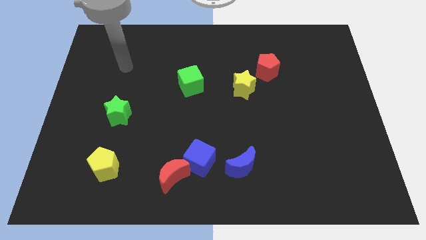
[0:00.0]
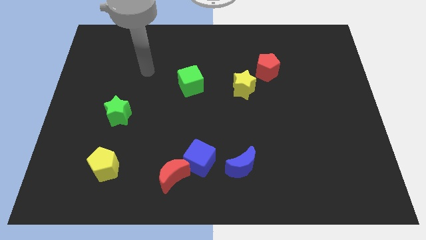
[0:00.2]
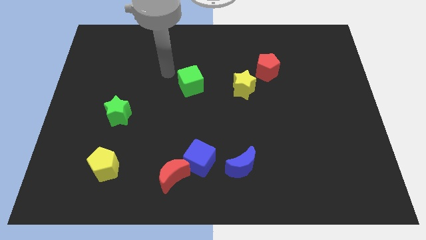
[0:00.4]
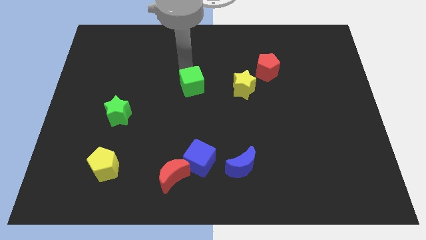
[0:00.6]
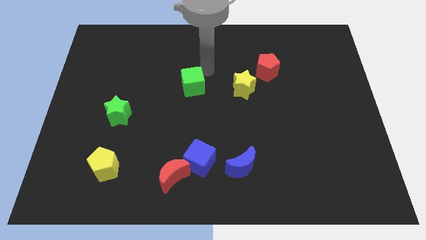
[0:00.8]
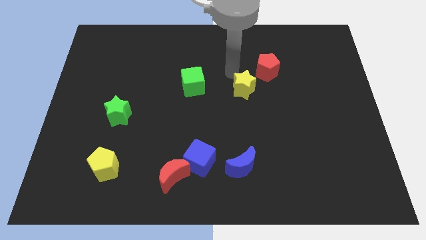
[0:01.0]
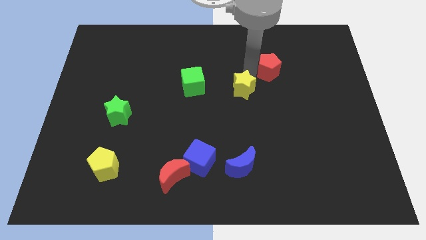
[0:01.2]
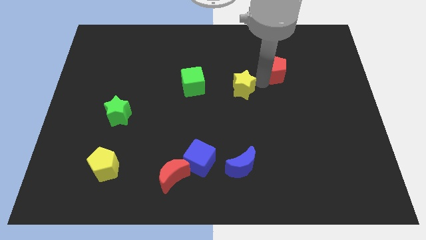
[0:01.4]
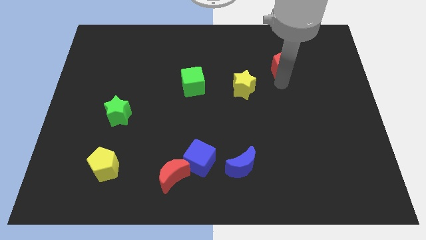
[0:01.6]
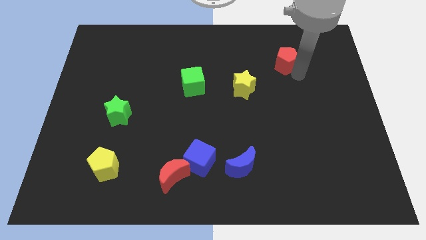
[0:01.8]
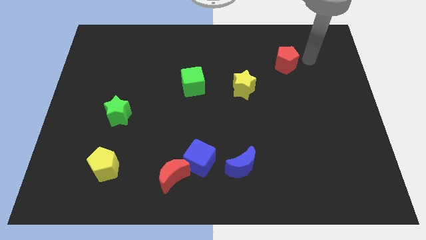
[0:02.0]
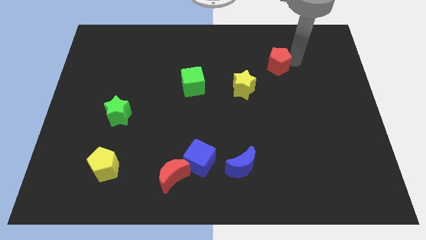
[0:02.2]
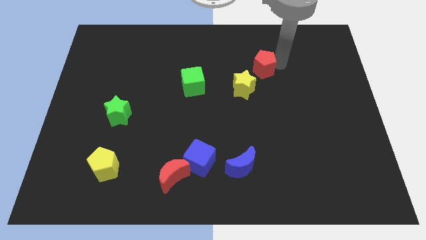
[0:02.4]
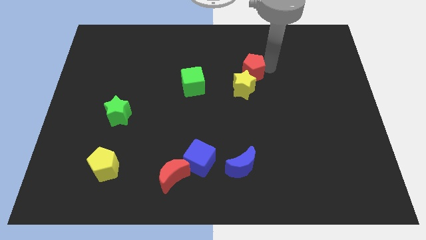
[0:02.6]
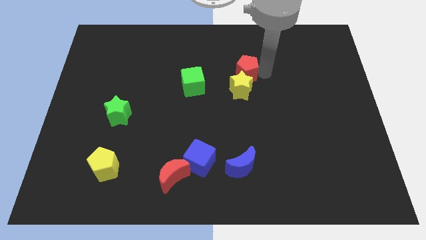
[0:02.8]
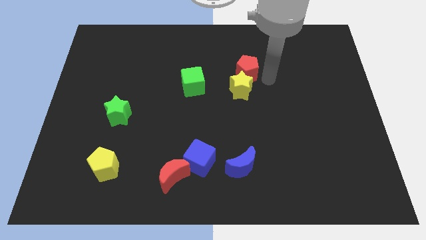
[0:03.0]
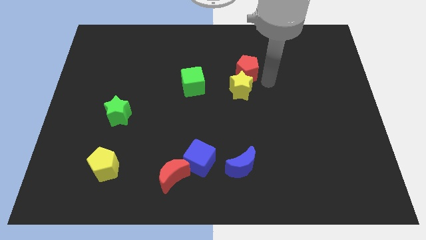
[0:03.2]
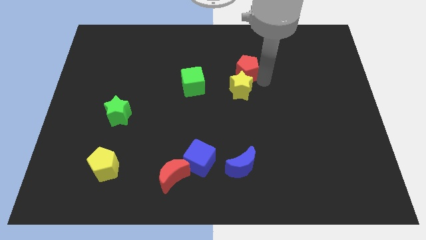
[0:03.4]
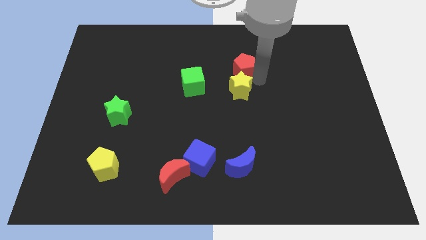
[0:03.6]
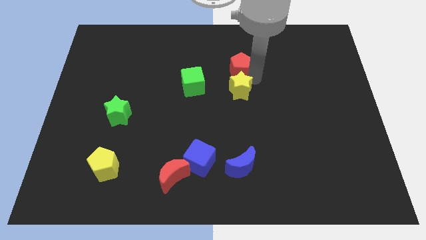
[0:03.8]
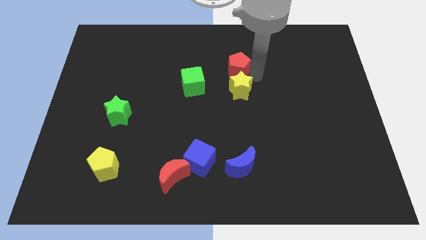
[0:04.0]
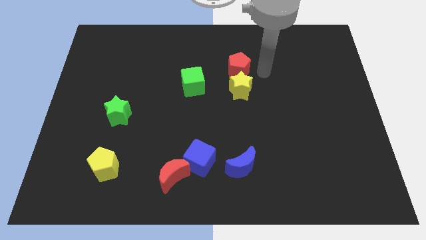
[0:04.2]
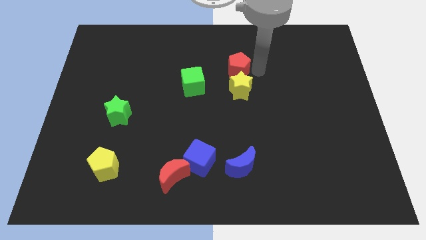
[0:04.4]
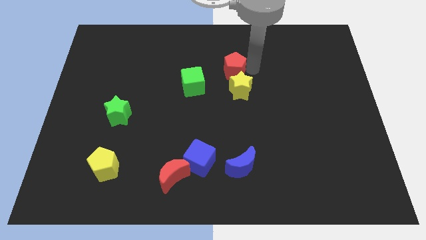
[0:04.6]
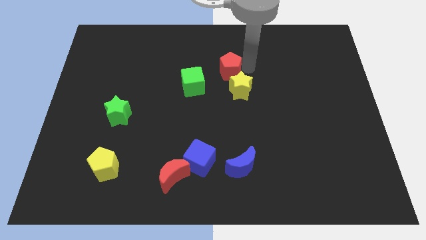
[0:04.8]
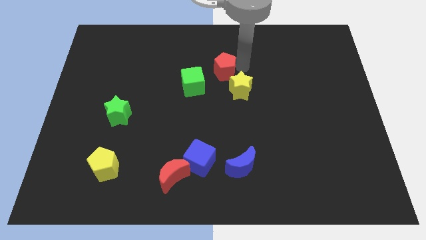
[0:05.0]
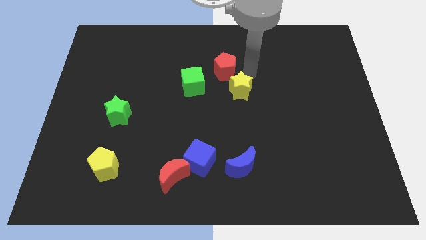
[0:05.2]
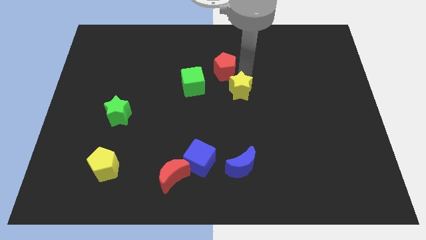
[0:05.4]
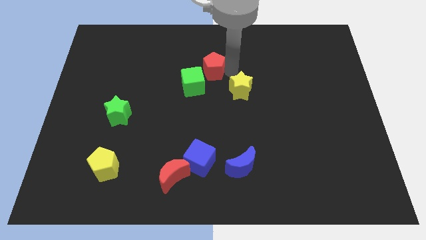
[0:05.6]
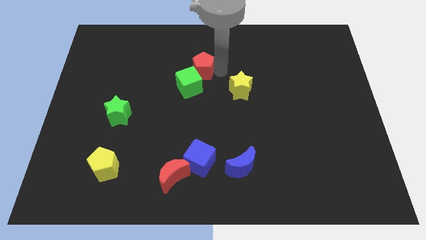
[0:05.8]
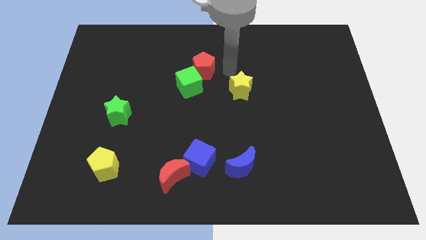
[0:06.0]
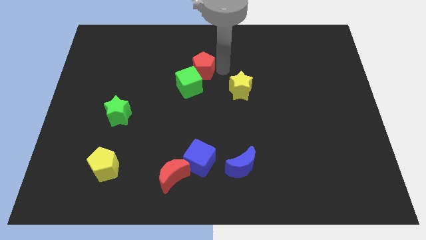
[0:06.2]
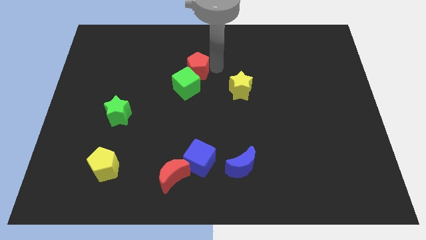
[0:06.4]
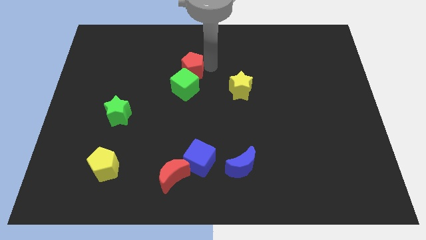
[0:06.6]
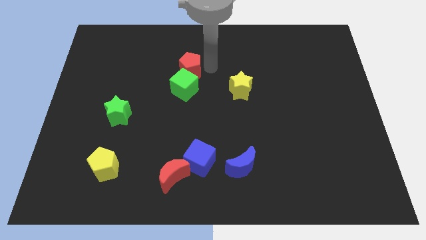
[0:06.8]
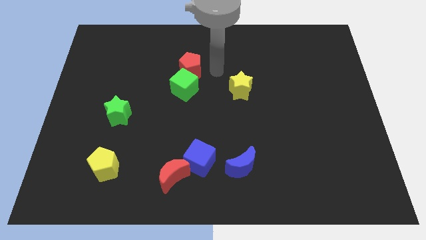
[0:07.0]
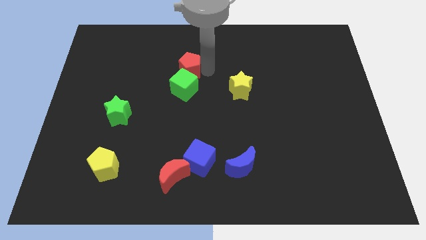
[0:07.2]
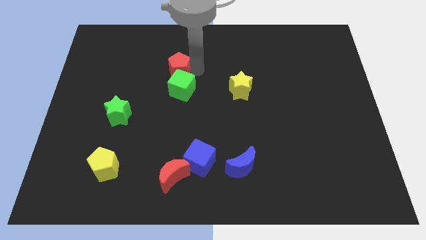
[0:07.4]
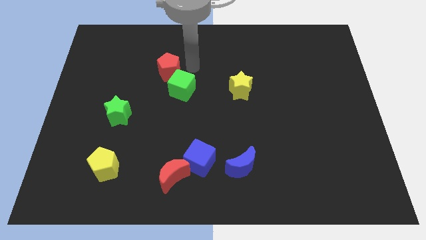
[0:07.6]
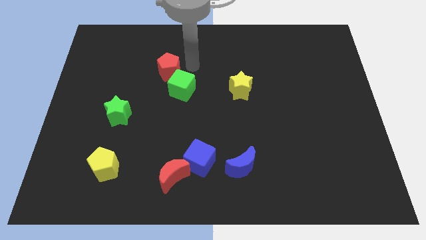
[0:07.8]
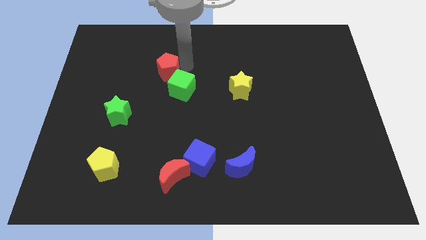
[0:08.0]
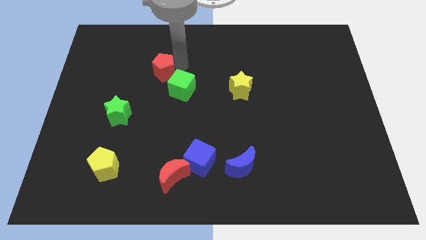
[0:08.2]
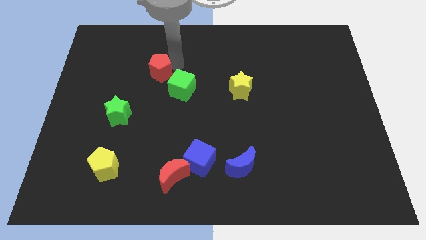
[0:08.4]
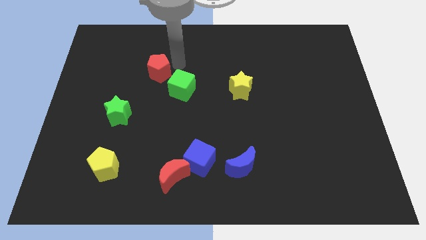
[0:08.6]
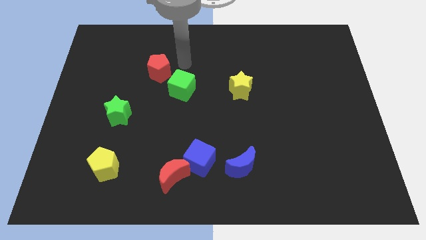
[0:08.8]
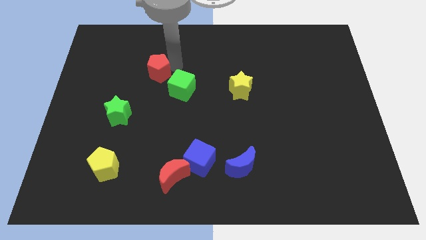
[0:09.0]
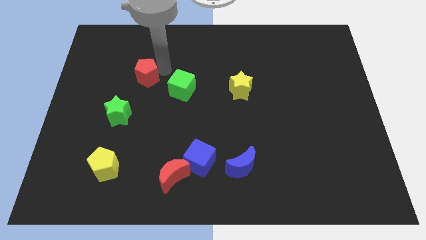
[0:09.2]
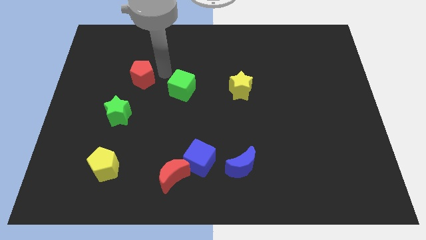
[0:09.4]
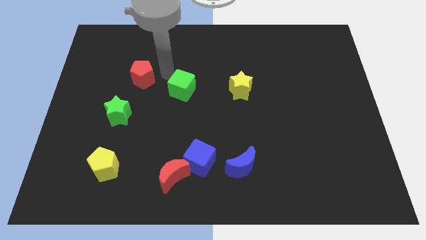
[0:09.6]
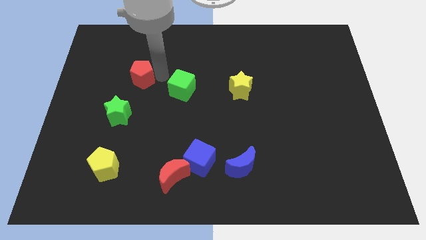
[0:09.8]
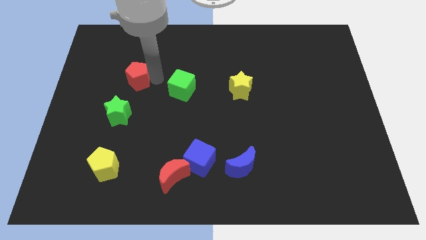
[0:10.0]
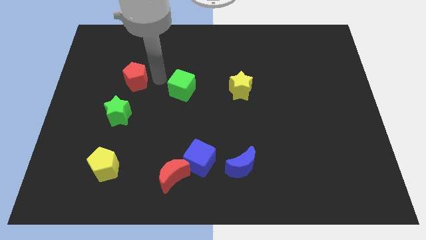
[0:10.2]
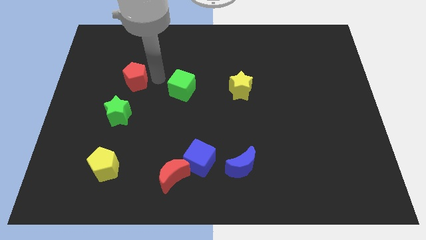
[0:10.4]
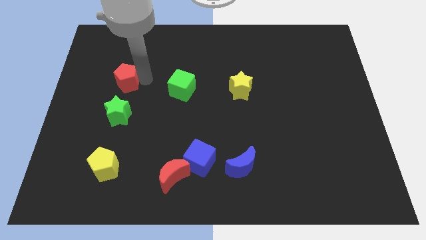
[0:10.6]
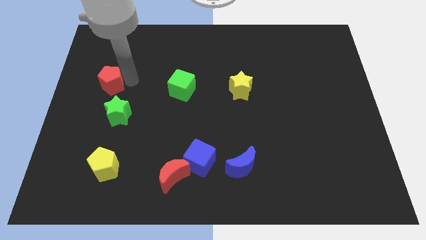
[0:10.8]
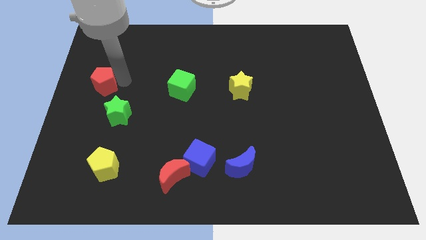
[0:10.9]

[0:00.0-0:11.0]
slide the red pentagon to the center left
